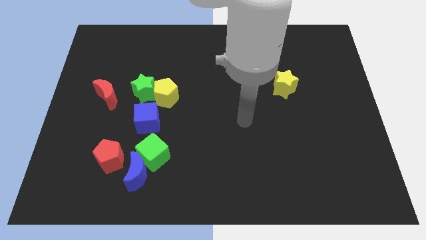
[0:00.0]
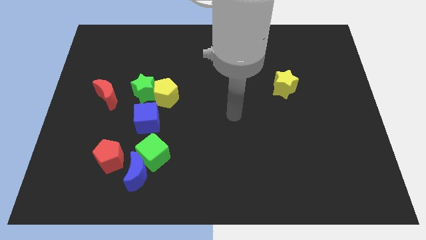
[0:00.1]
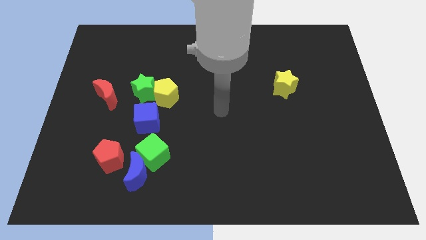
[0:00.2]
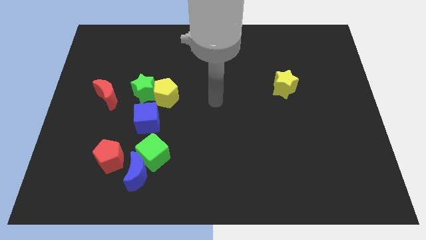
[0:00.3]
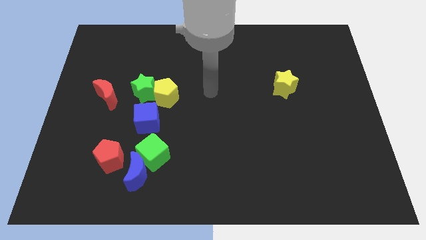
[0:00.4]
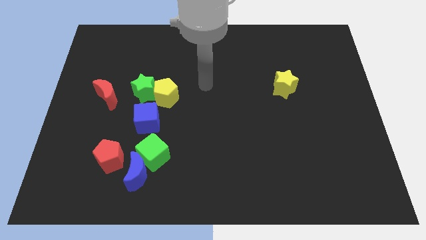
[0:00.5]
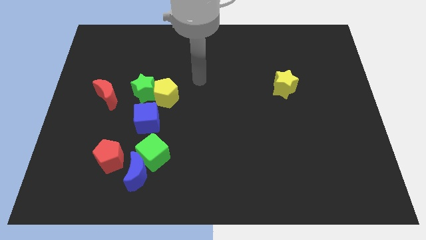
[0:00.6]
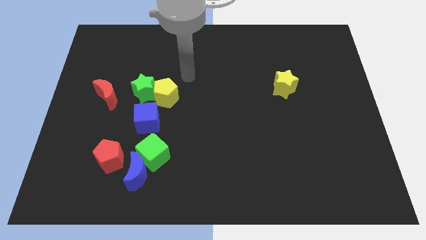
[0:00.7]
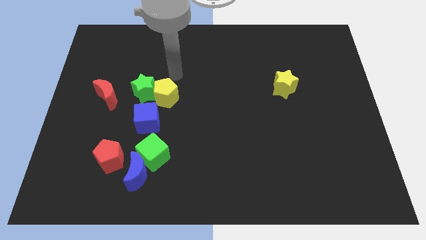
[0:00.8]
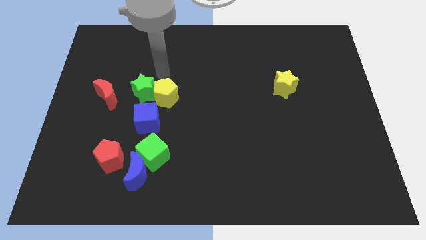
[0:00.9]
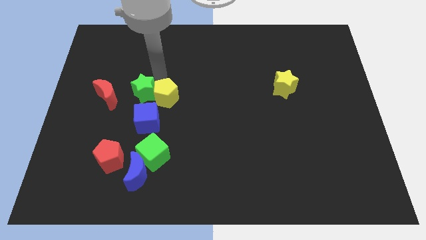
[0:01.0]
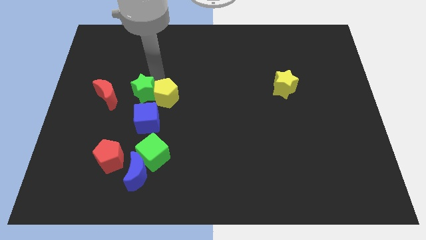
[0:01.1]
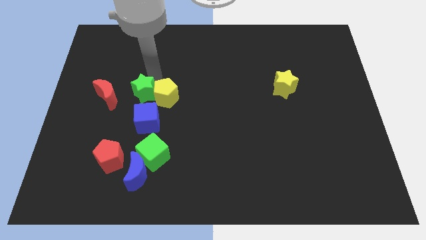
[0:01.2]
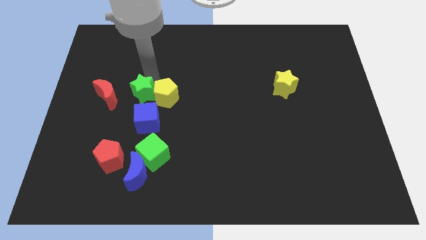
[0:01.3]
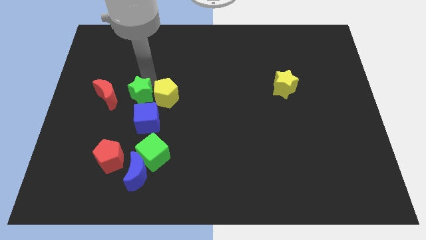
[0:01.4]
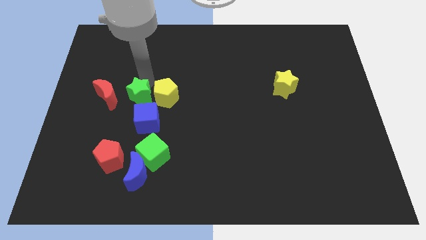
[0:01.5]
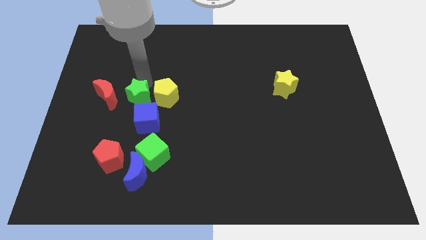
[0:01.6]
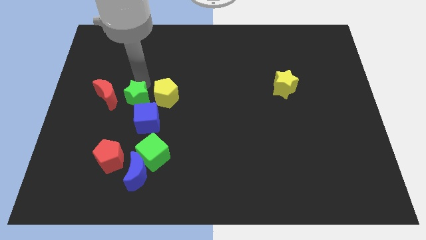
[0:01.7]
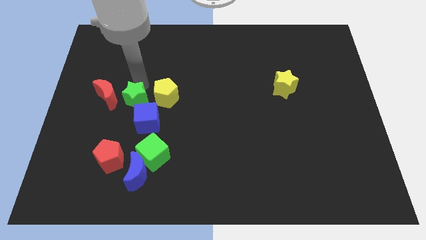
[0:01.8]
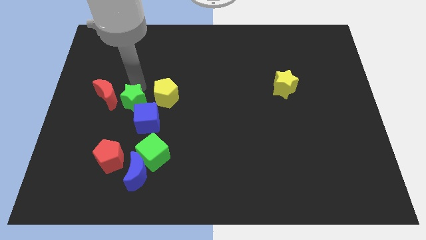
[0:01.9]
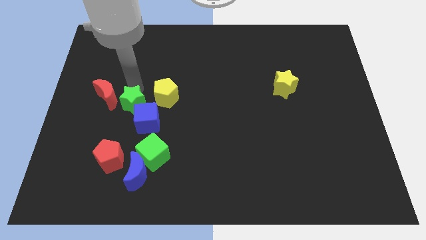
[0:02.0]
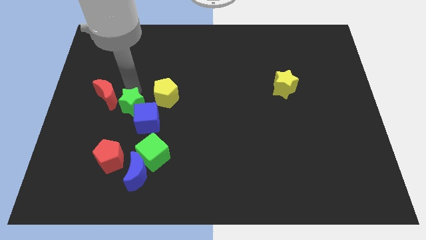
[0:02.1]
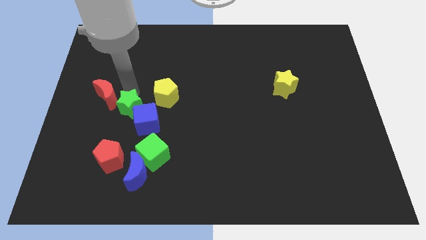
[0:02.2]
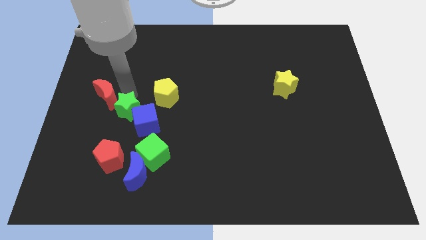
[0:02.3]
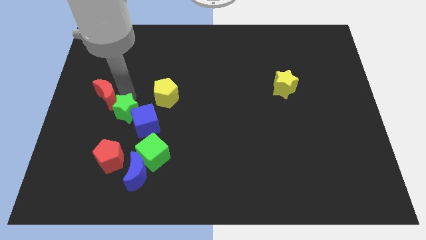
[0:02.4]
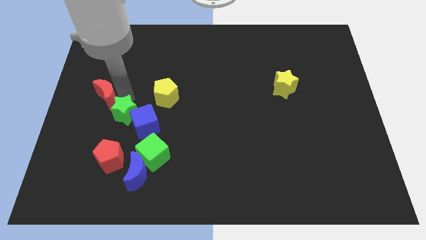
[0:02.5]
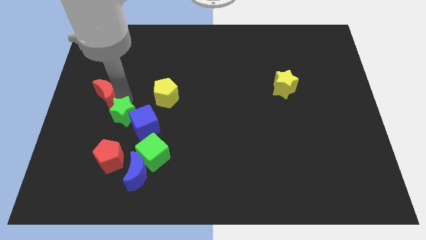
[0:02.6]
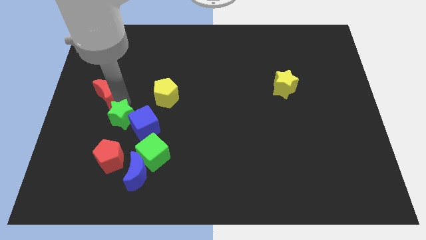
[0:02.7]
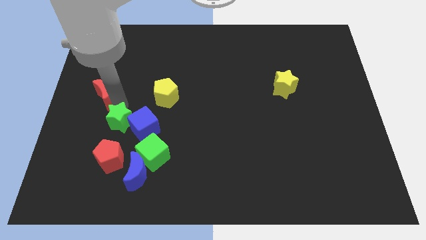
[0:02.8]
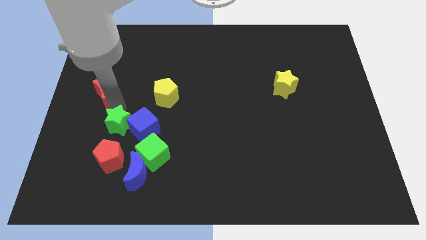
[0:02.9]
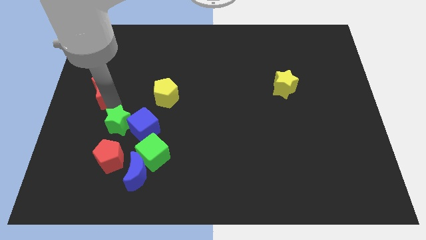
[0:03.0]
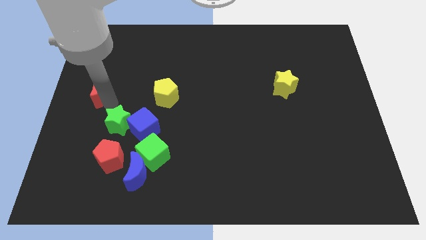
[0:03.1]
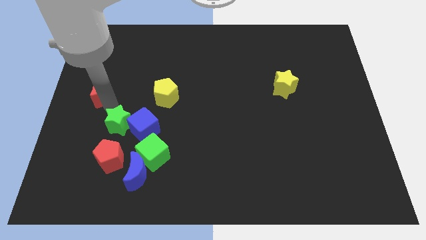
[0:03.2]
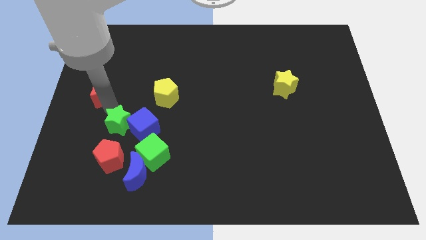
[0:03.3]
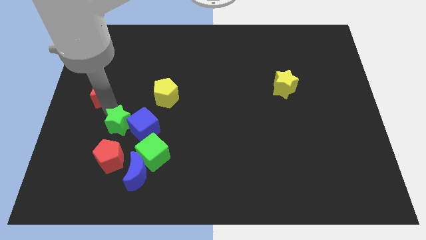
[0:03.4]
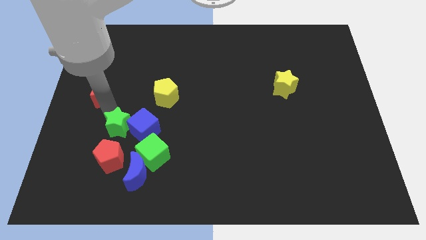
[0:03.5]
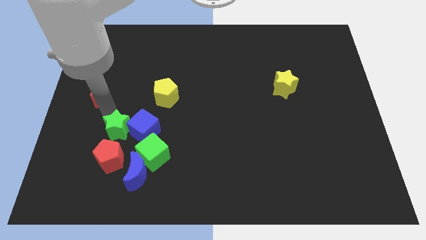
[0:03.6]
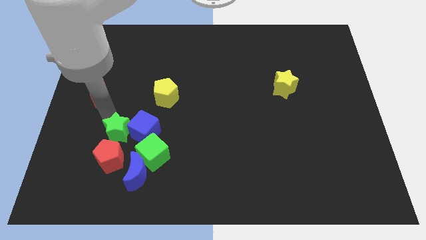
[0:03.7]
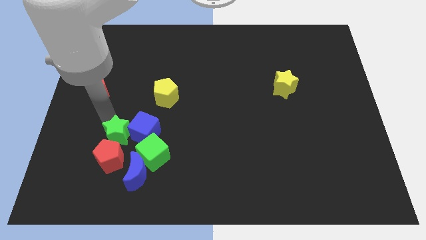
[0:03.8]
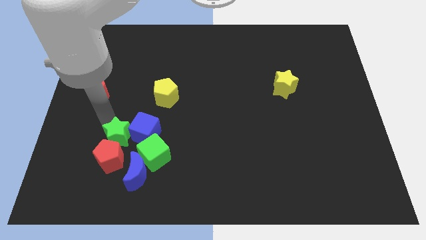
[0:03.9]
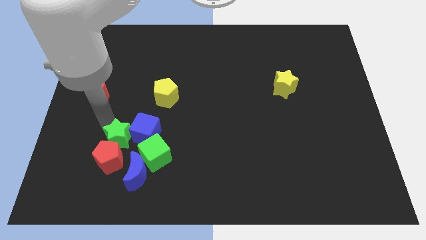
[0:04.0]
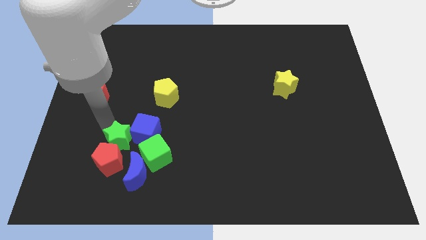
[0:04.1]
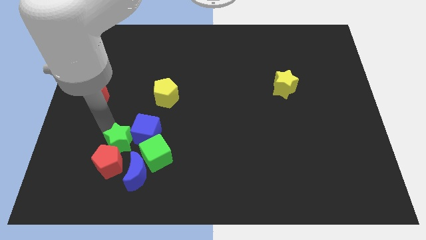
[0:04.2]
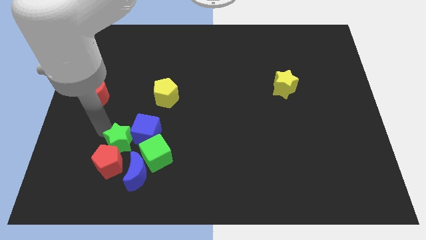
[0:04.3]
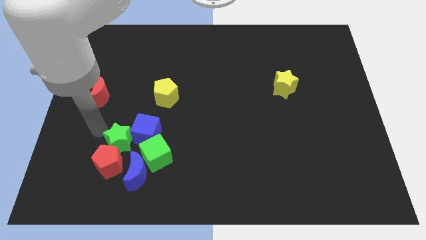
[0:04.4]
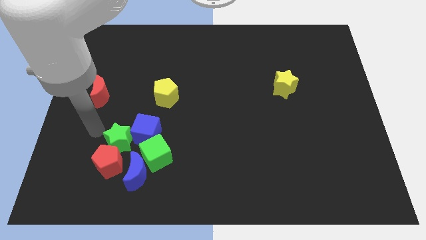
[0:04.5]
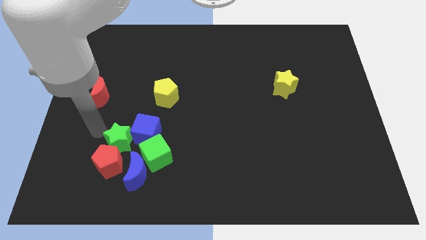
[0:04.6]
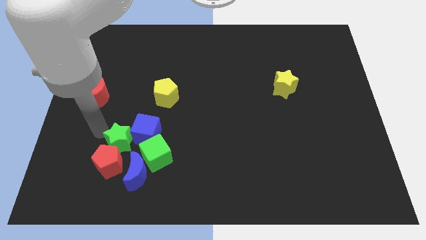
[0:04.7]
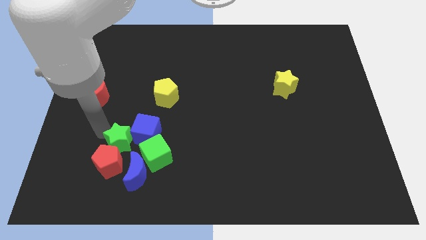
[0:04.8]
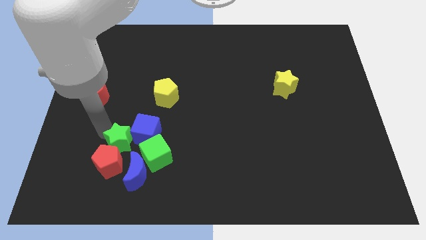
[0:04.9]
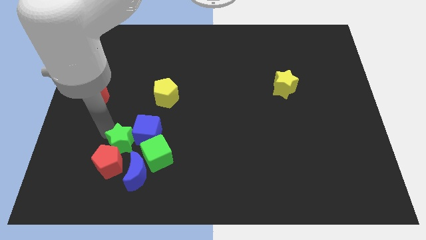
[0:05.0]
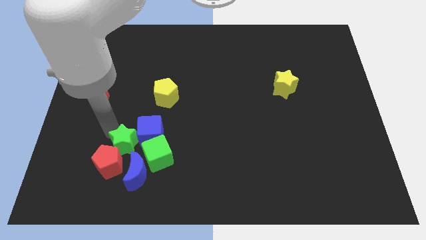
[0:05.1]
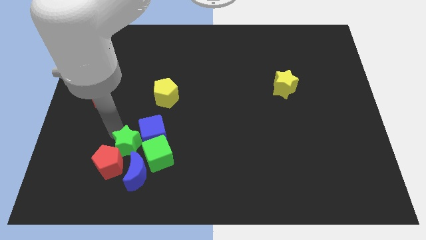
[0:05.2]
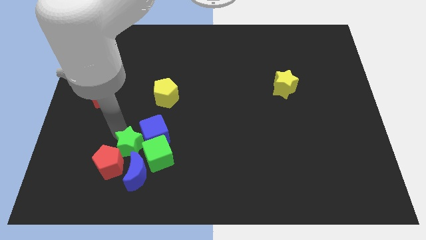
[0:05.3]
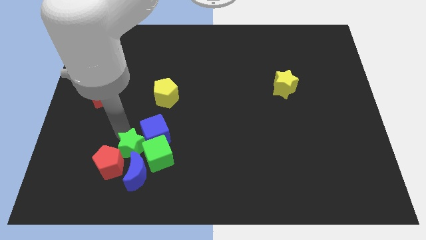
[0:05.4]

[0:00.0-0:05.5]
move the green star next to the green cube

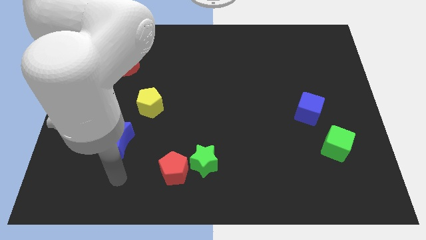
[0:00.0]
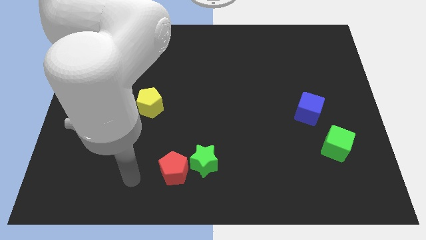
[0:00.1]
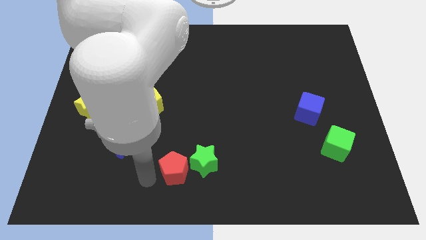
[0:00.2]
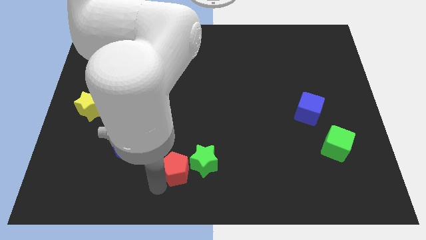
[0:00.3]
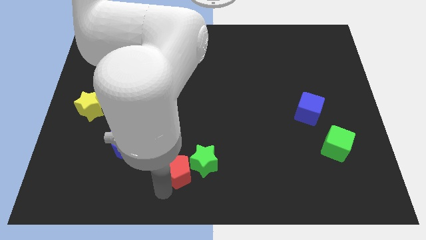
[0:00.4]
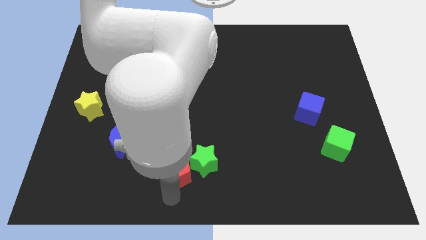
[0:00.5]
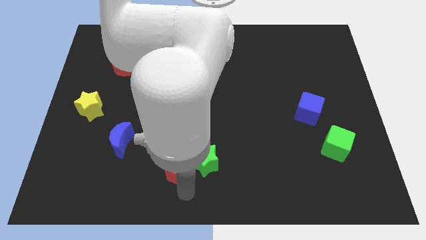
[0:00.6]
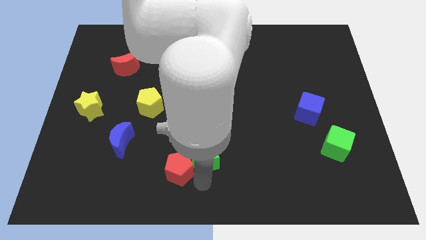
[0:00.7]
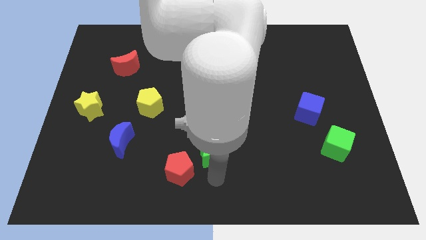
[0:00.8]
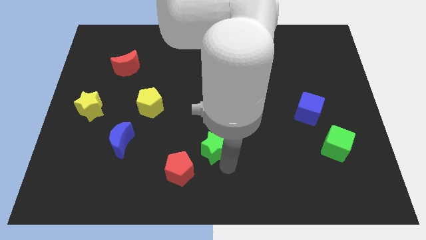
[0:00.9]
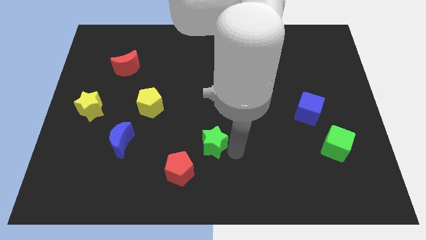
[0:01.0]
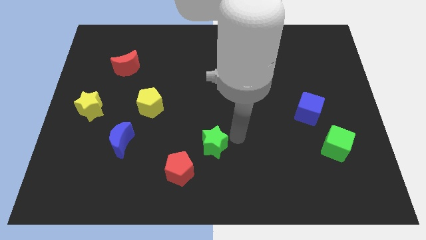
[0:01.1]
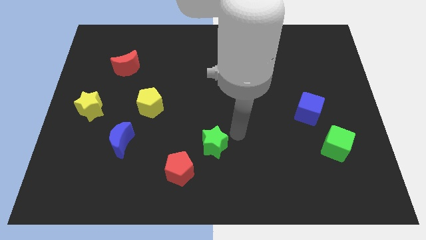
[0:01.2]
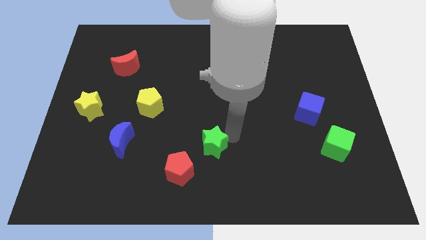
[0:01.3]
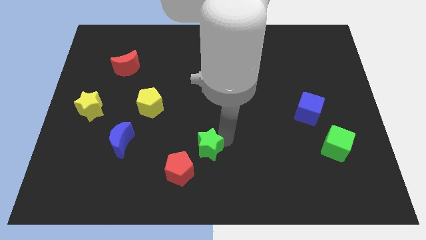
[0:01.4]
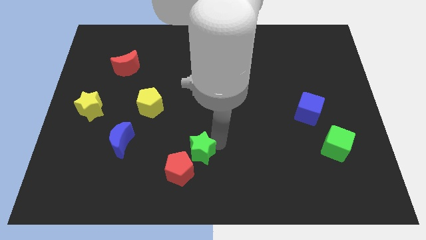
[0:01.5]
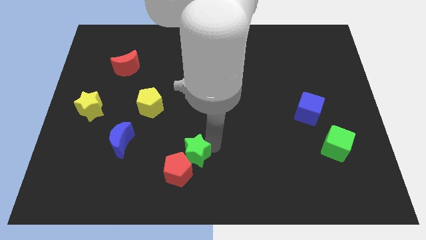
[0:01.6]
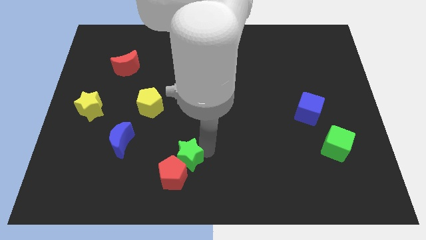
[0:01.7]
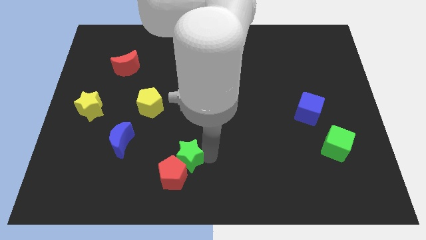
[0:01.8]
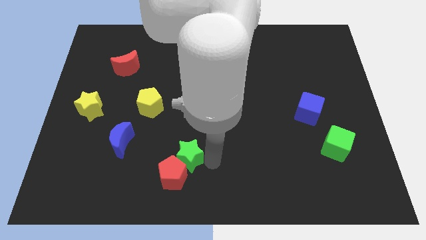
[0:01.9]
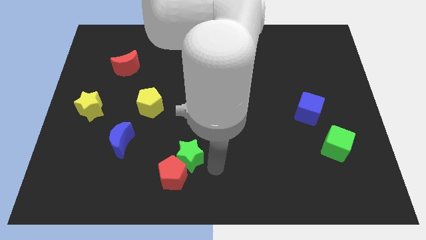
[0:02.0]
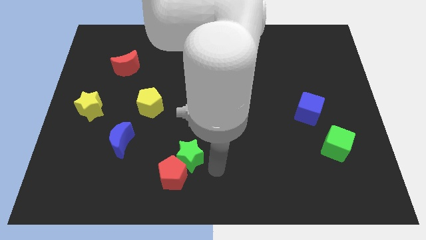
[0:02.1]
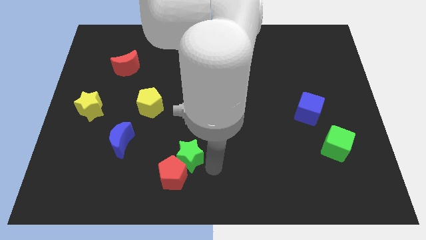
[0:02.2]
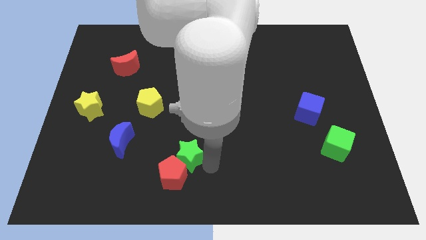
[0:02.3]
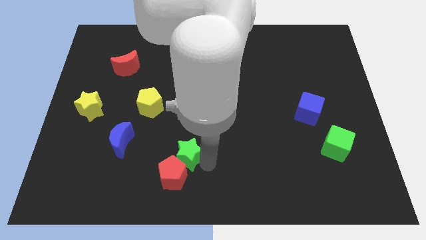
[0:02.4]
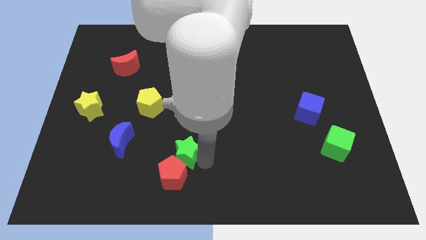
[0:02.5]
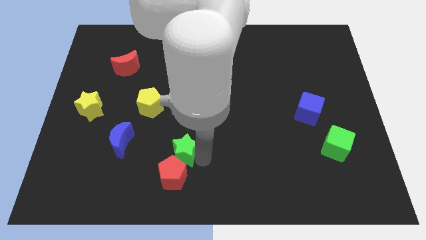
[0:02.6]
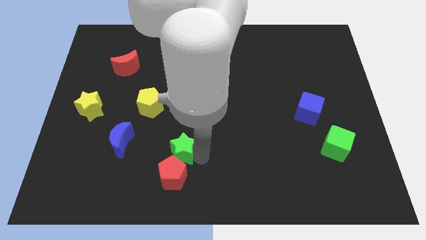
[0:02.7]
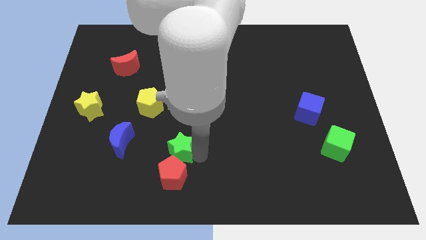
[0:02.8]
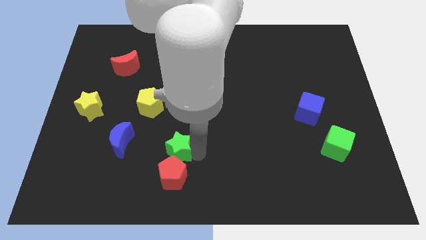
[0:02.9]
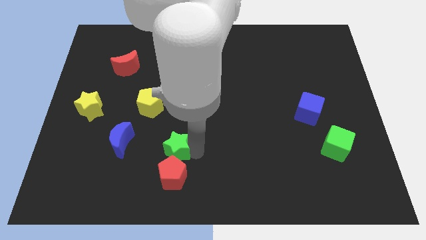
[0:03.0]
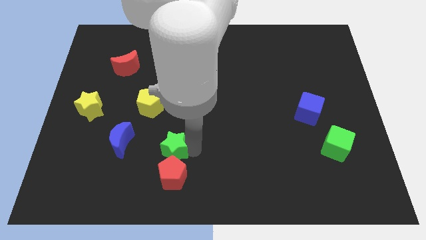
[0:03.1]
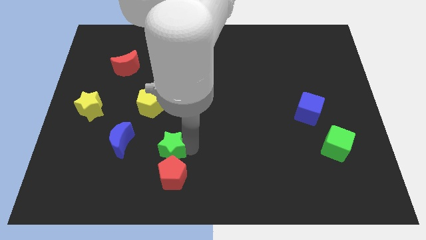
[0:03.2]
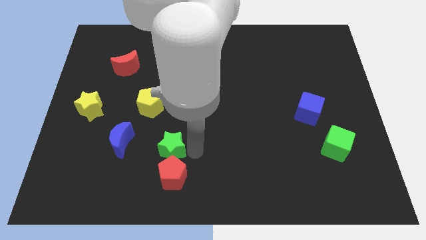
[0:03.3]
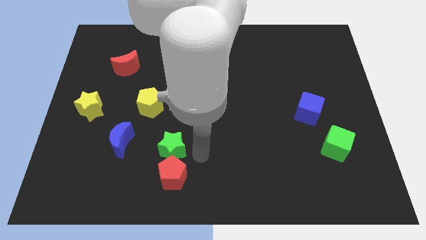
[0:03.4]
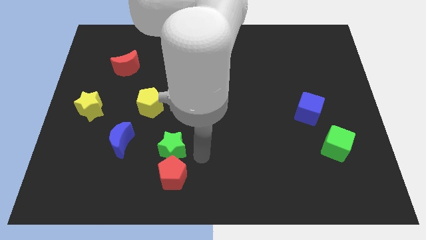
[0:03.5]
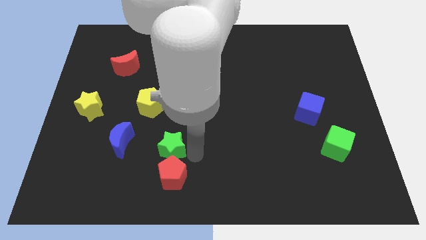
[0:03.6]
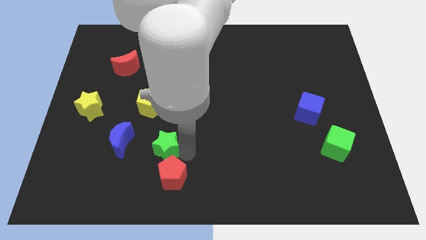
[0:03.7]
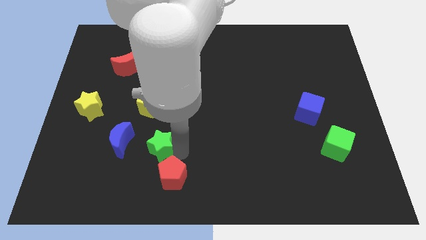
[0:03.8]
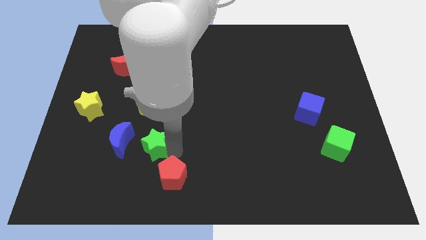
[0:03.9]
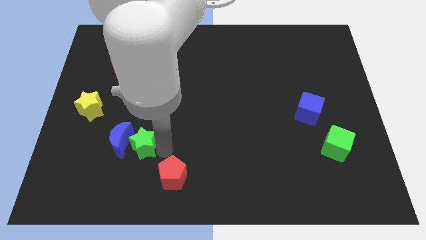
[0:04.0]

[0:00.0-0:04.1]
put the green star close to the blue moon
